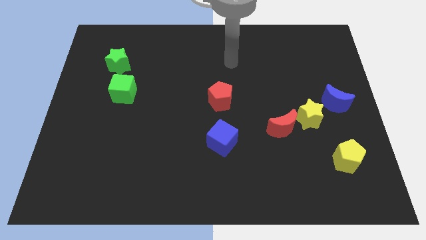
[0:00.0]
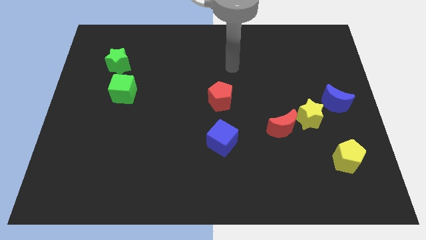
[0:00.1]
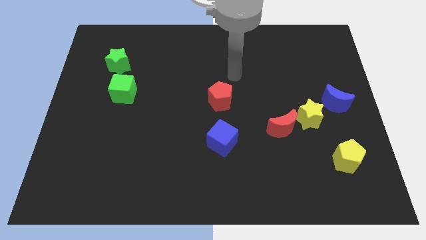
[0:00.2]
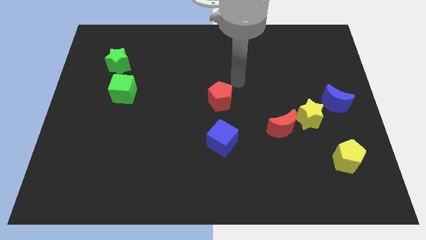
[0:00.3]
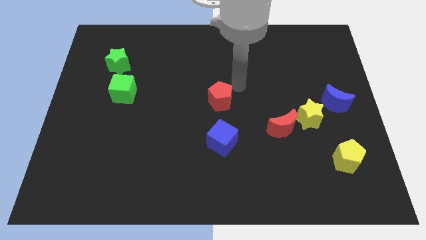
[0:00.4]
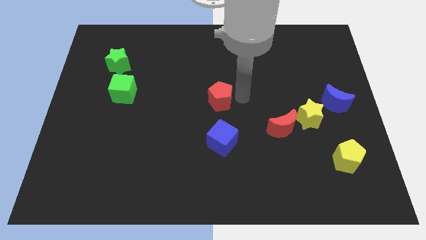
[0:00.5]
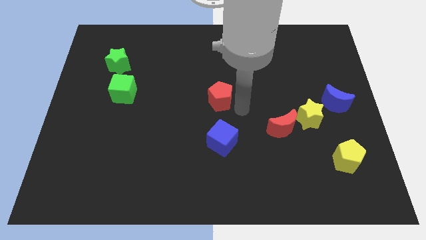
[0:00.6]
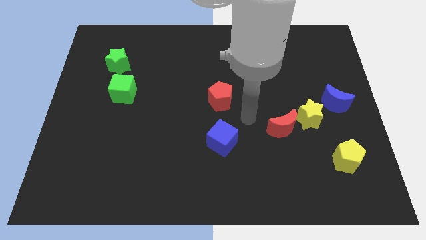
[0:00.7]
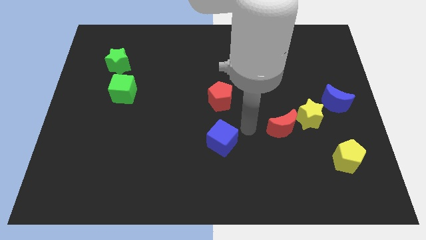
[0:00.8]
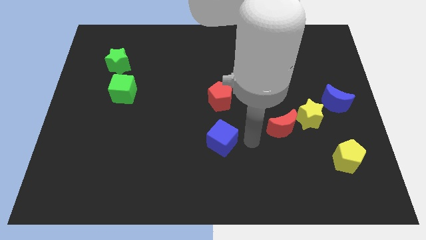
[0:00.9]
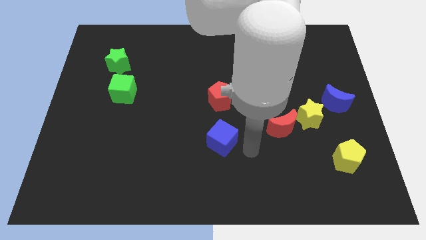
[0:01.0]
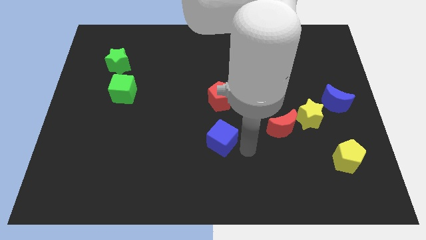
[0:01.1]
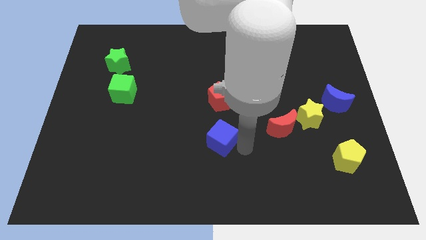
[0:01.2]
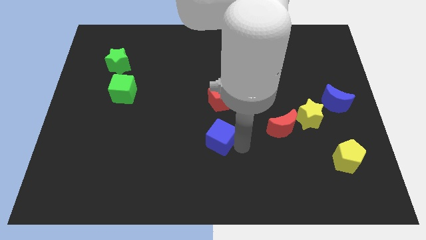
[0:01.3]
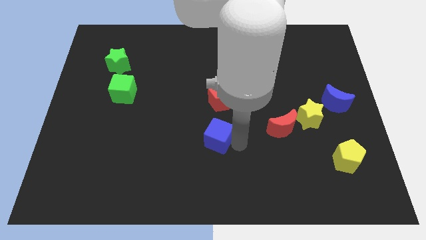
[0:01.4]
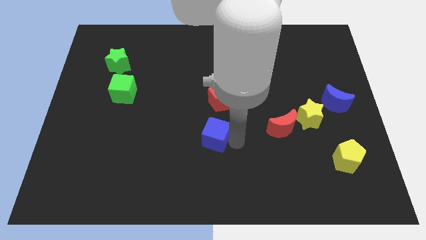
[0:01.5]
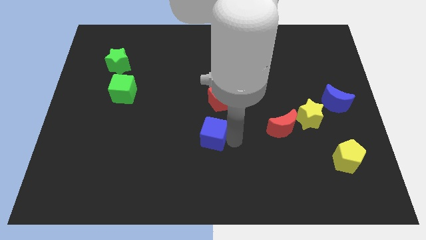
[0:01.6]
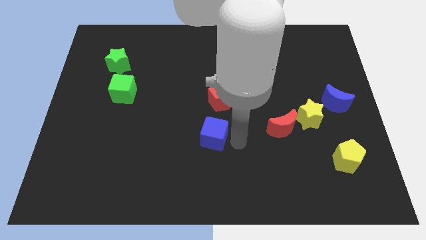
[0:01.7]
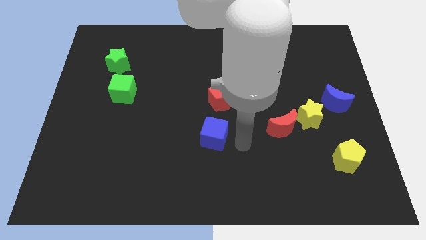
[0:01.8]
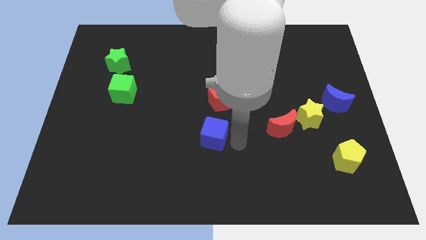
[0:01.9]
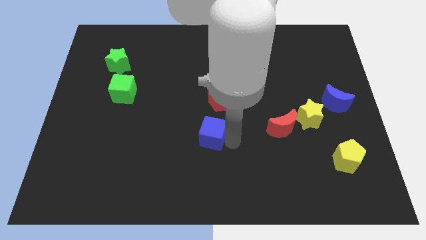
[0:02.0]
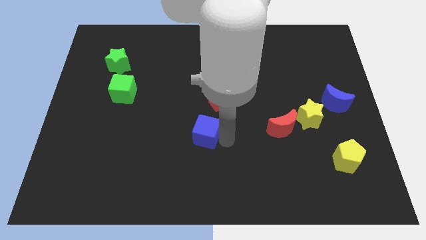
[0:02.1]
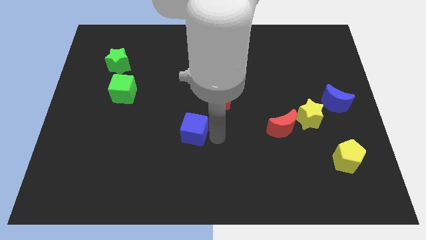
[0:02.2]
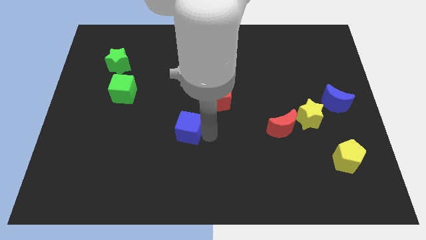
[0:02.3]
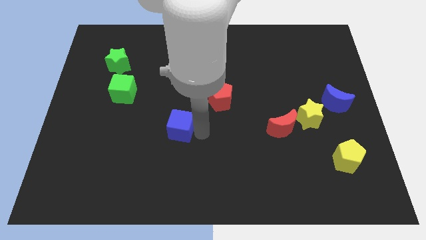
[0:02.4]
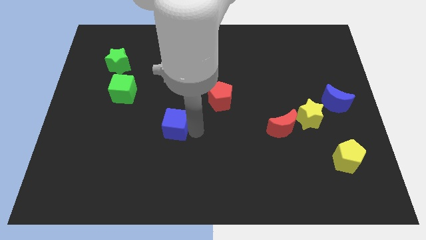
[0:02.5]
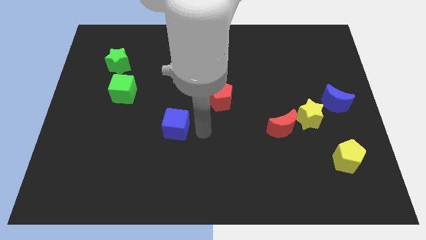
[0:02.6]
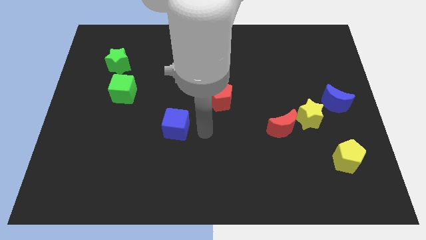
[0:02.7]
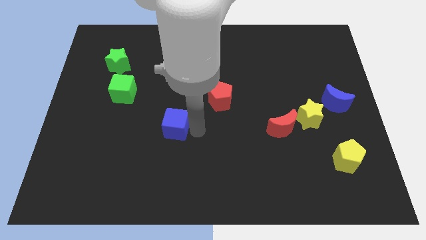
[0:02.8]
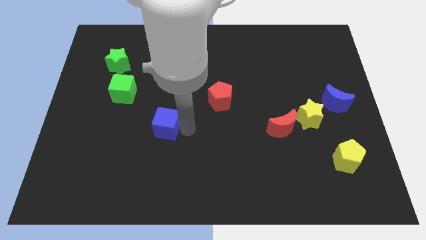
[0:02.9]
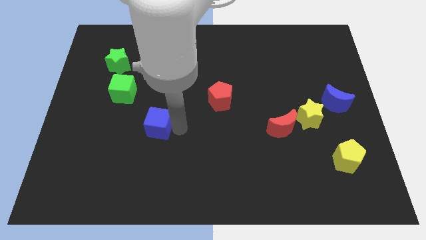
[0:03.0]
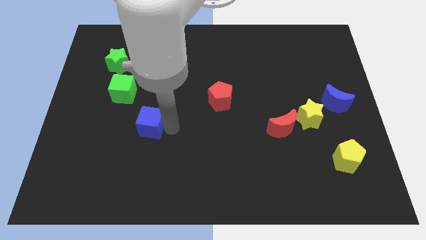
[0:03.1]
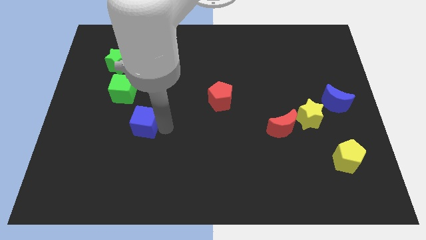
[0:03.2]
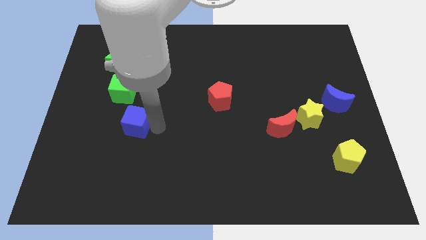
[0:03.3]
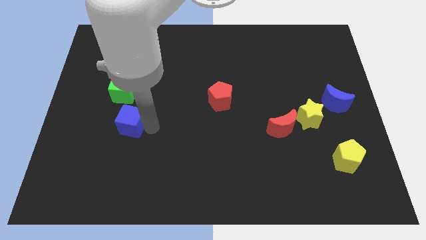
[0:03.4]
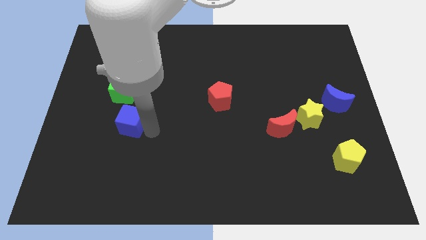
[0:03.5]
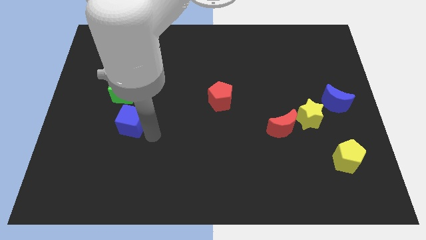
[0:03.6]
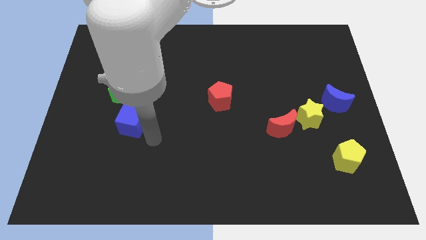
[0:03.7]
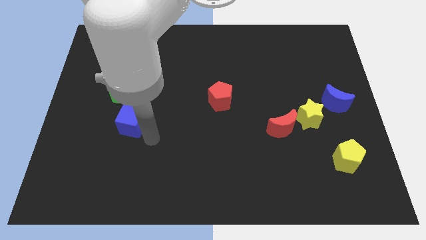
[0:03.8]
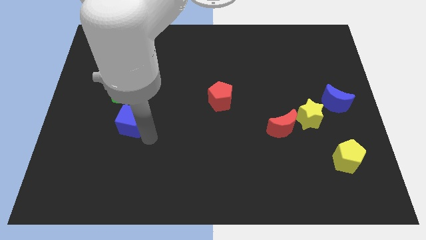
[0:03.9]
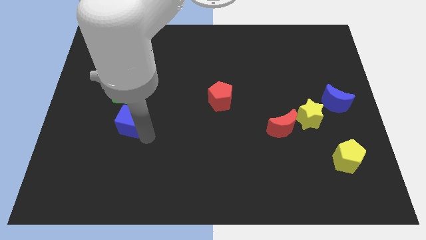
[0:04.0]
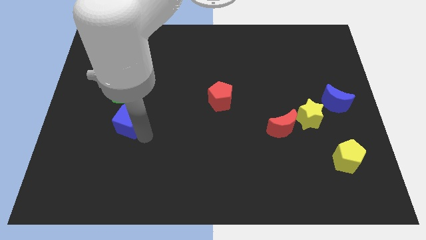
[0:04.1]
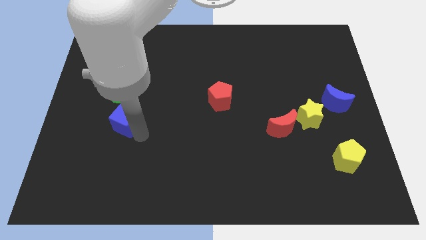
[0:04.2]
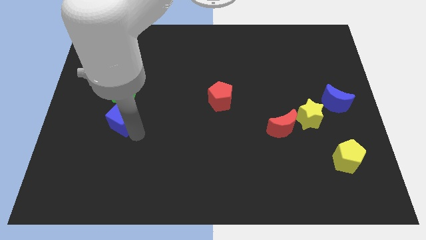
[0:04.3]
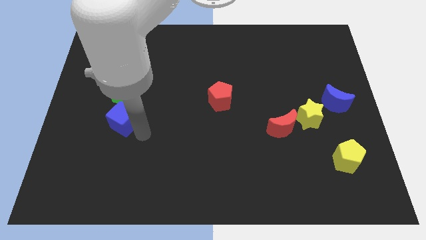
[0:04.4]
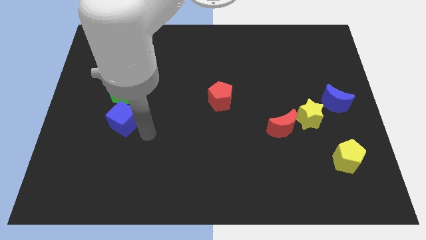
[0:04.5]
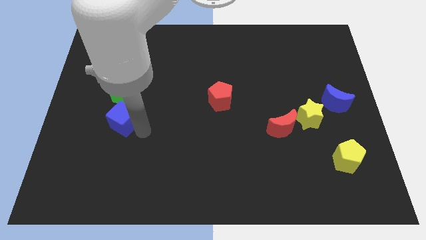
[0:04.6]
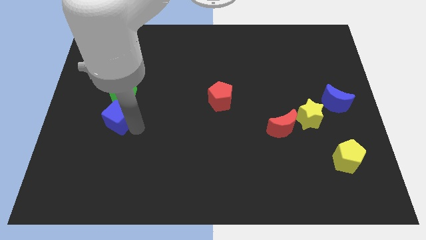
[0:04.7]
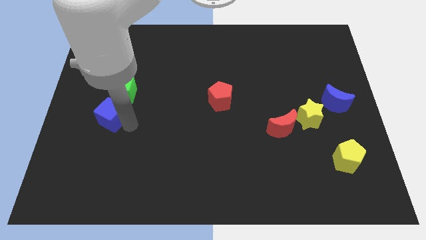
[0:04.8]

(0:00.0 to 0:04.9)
push the blue cube to the bottom left side of the green cube

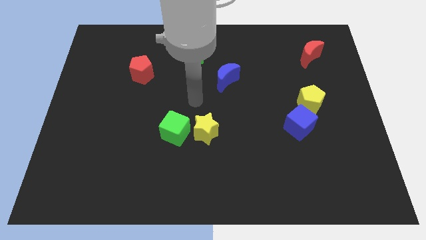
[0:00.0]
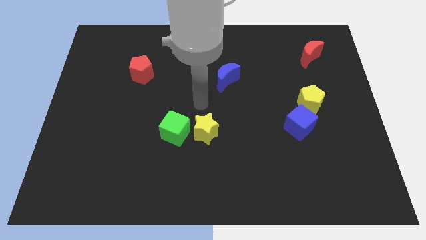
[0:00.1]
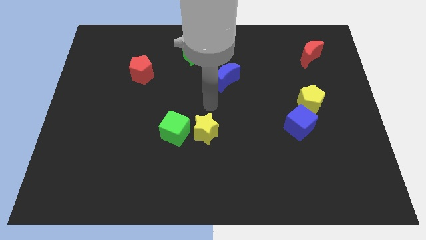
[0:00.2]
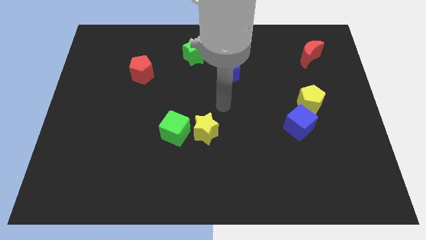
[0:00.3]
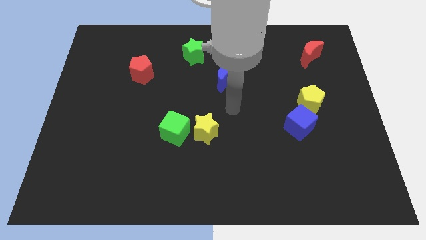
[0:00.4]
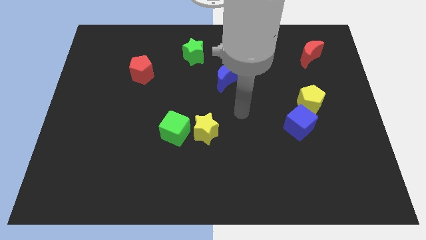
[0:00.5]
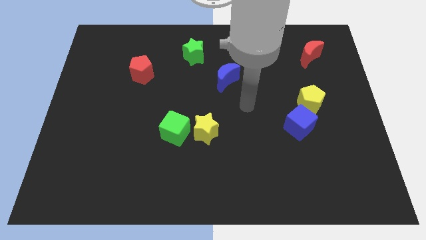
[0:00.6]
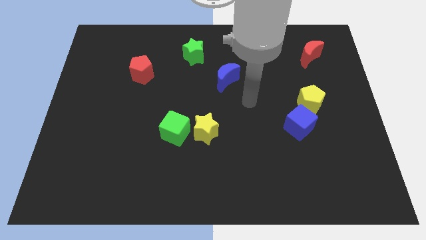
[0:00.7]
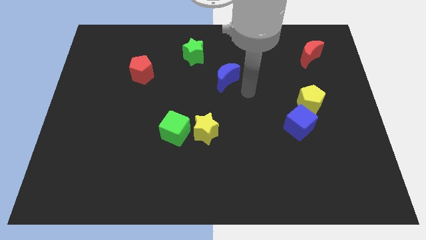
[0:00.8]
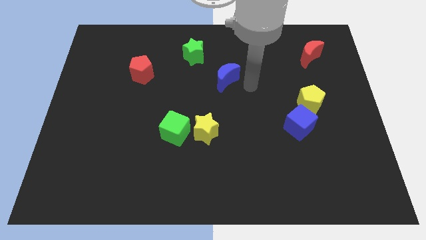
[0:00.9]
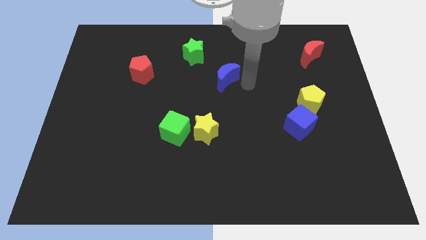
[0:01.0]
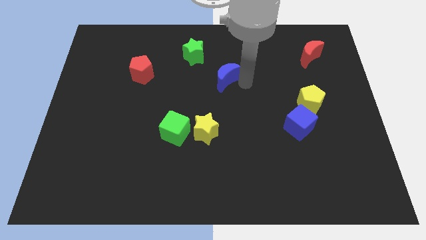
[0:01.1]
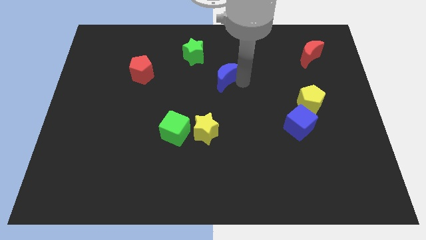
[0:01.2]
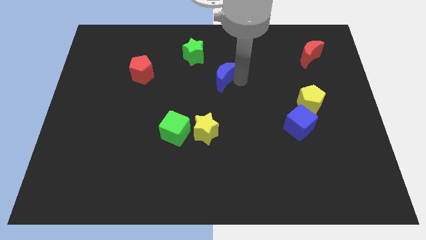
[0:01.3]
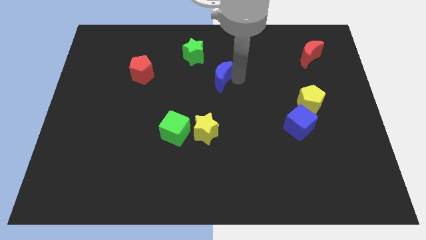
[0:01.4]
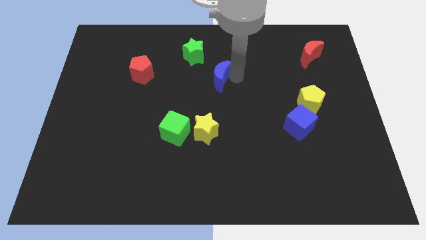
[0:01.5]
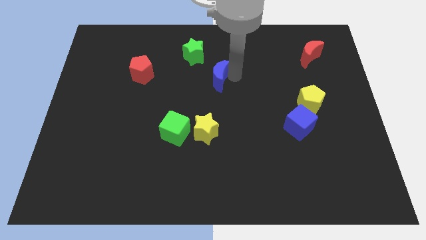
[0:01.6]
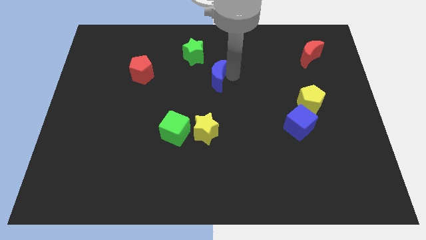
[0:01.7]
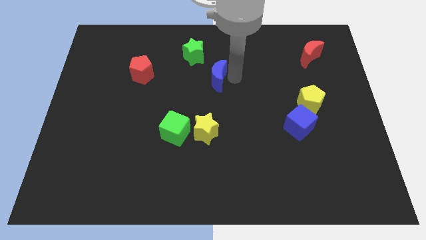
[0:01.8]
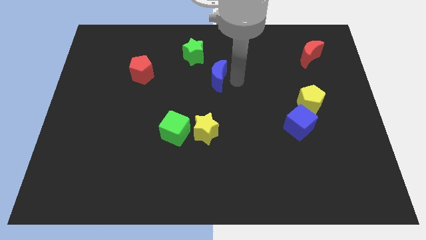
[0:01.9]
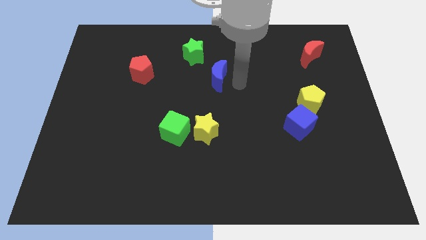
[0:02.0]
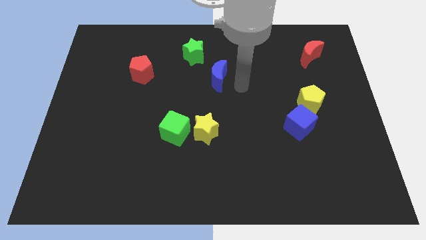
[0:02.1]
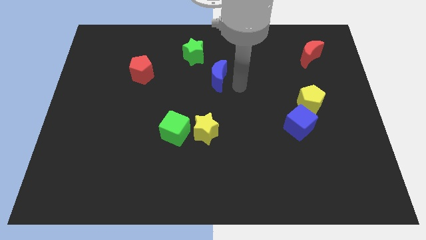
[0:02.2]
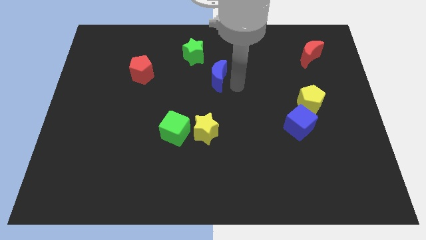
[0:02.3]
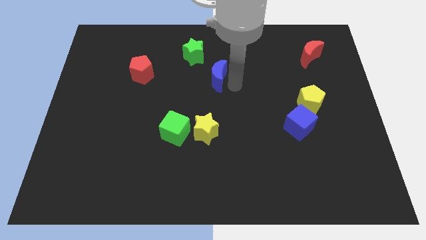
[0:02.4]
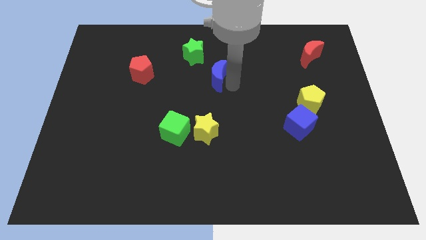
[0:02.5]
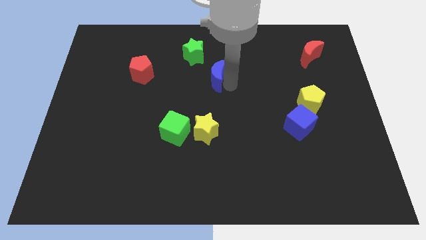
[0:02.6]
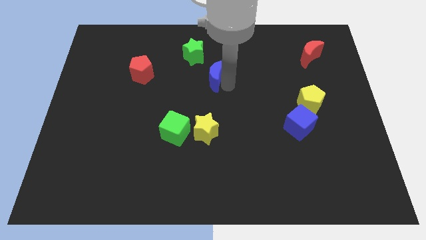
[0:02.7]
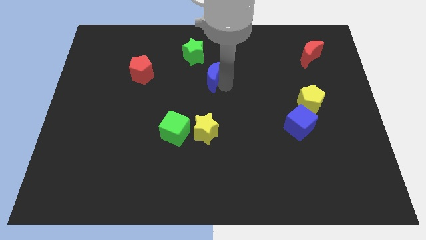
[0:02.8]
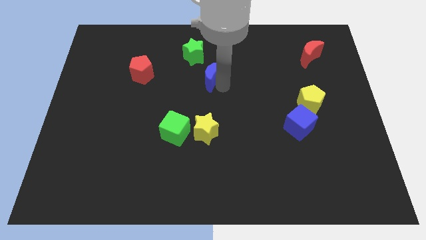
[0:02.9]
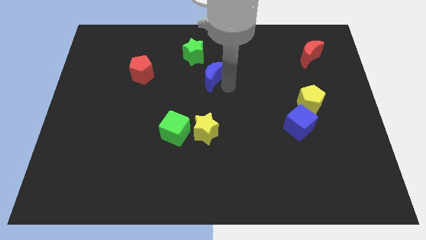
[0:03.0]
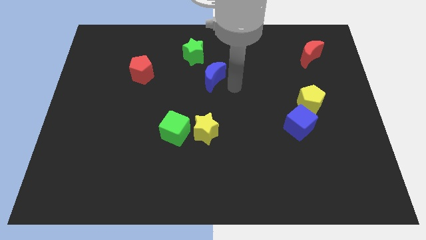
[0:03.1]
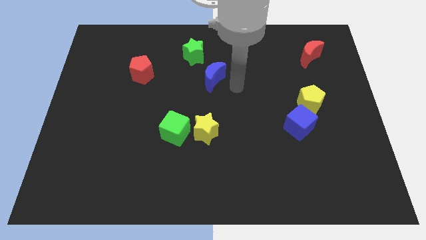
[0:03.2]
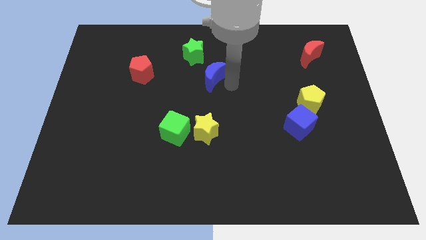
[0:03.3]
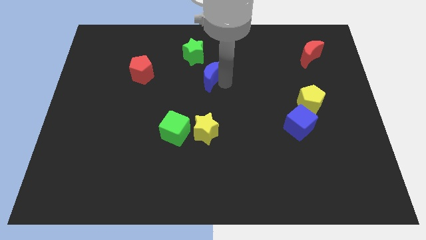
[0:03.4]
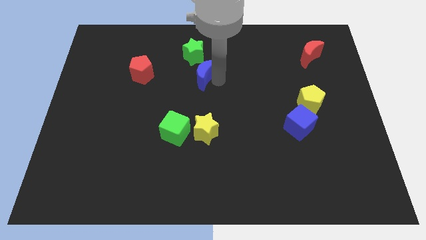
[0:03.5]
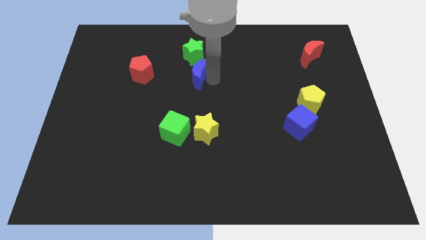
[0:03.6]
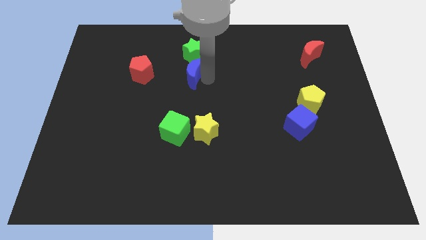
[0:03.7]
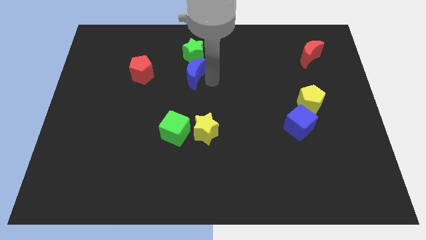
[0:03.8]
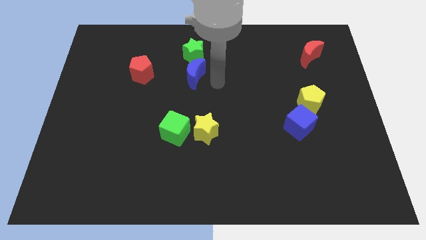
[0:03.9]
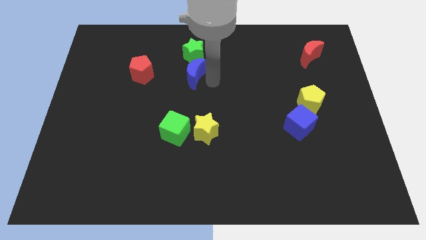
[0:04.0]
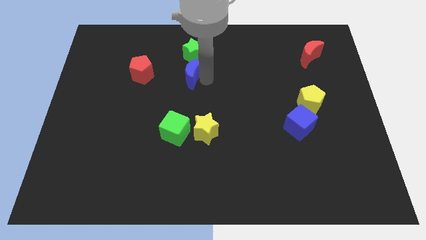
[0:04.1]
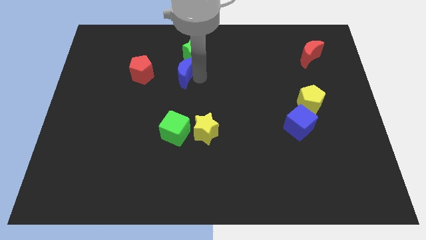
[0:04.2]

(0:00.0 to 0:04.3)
put the blue moon to the bottom left side of the green star
